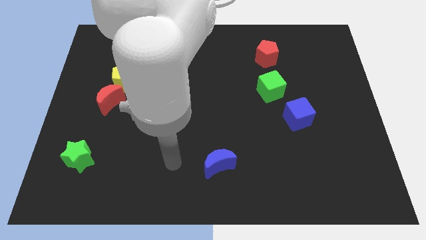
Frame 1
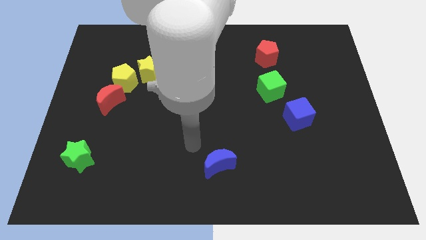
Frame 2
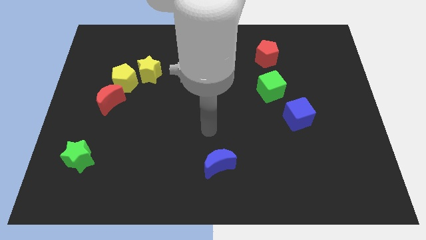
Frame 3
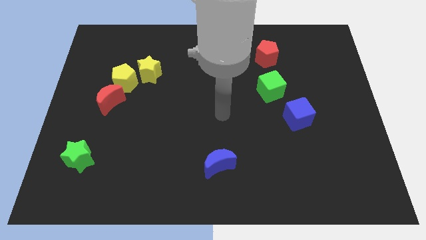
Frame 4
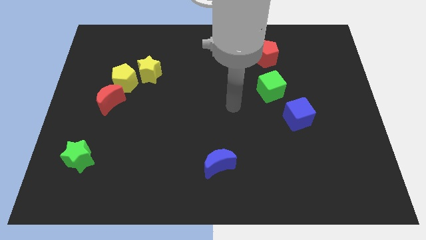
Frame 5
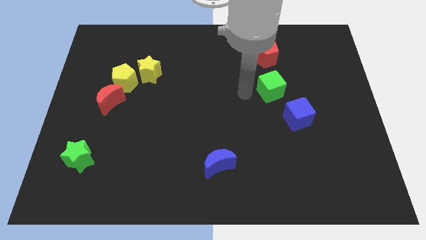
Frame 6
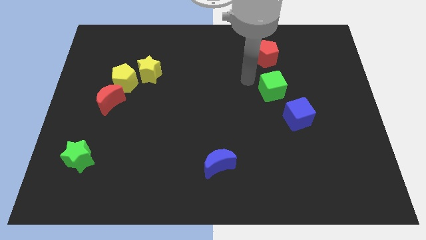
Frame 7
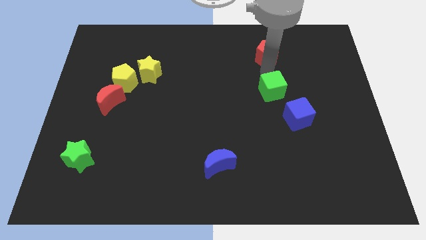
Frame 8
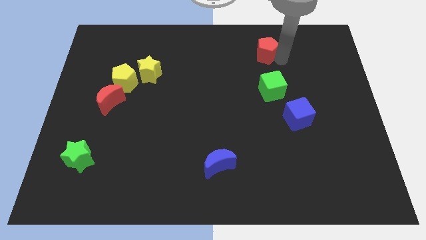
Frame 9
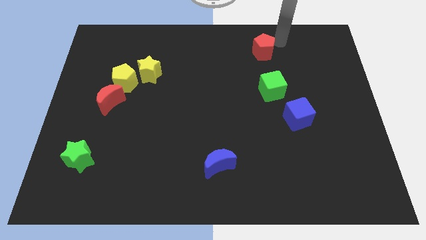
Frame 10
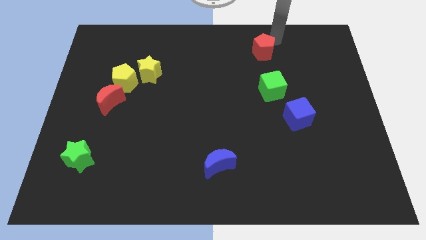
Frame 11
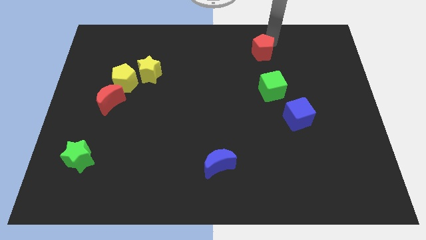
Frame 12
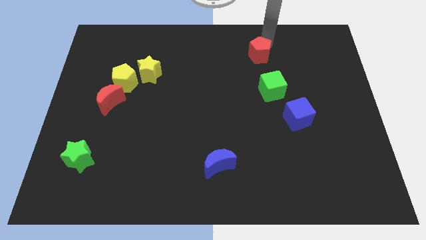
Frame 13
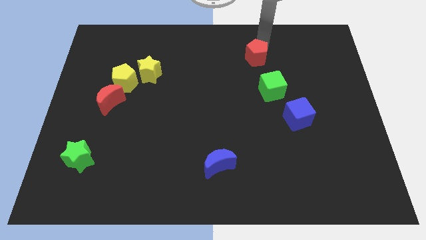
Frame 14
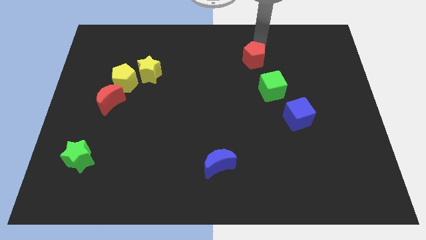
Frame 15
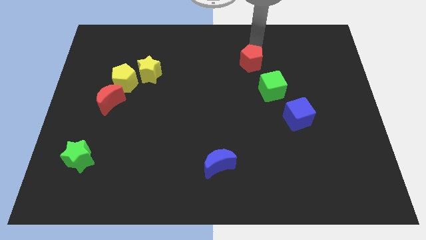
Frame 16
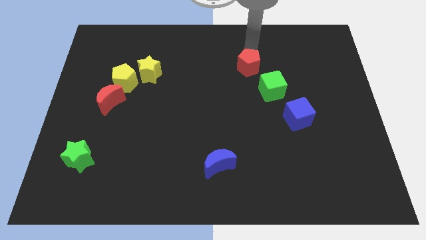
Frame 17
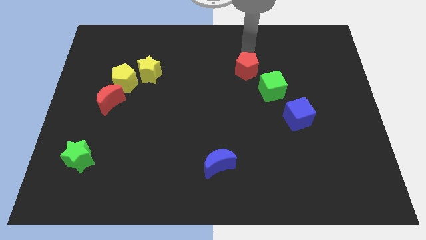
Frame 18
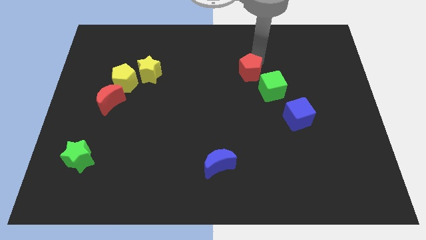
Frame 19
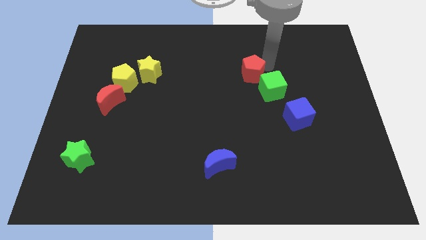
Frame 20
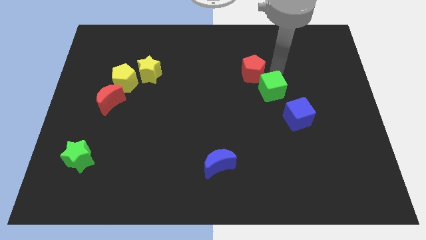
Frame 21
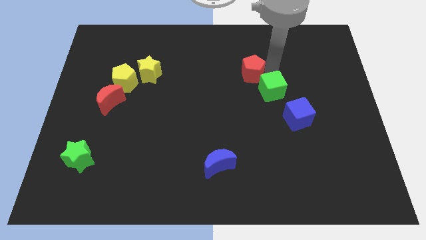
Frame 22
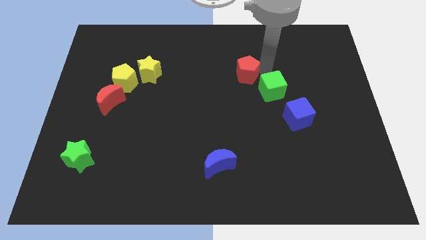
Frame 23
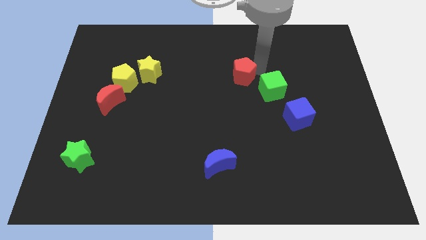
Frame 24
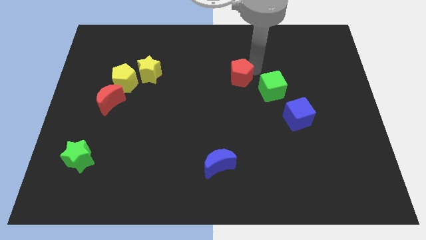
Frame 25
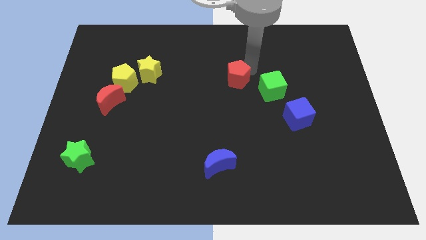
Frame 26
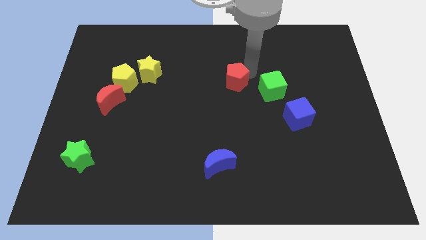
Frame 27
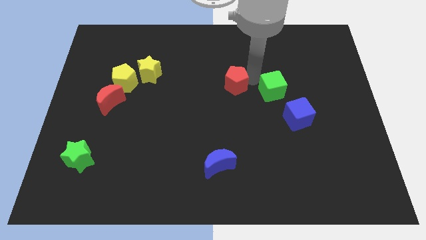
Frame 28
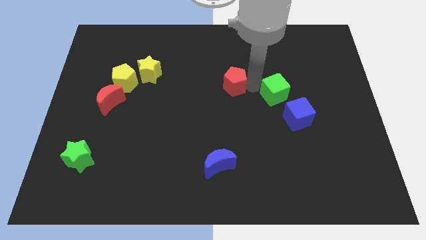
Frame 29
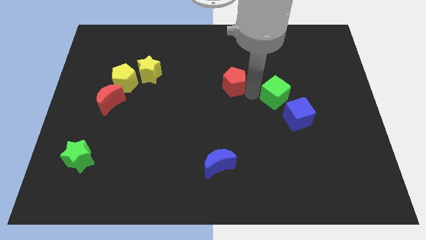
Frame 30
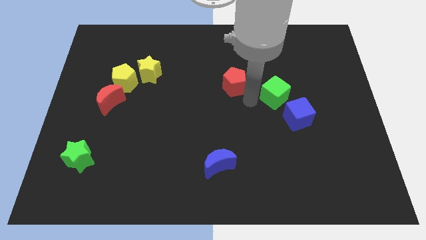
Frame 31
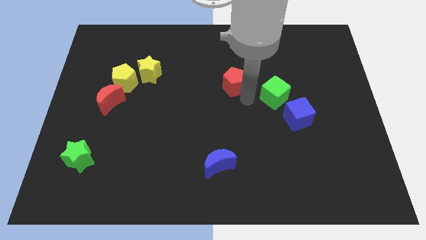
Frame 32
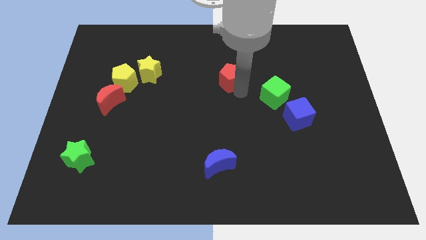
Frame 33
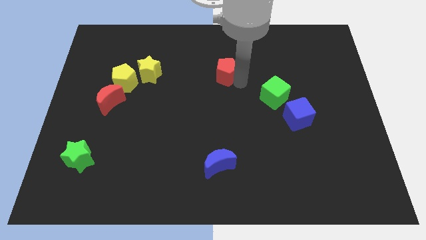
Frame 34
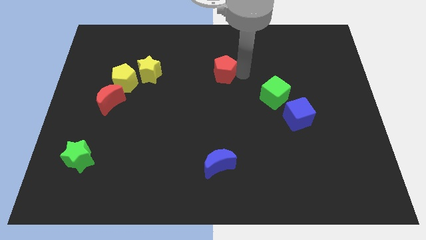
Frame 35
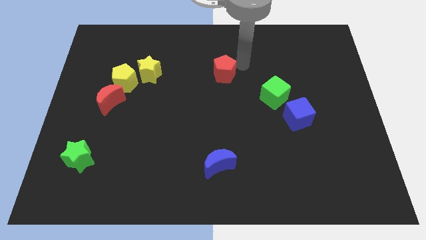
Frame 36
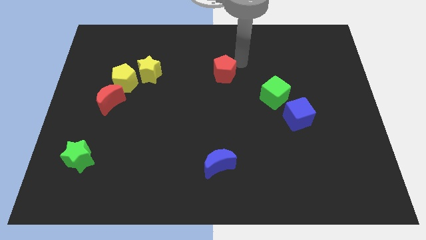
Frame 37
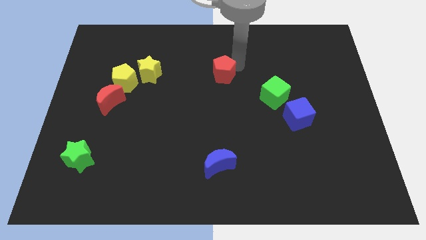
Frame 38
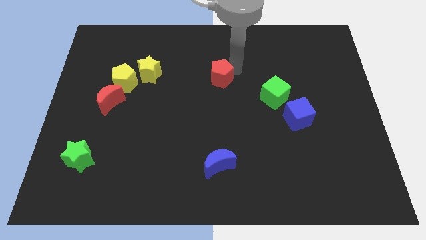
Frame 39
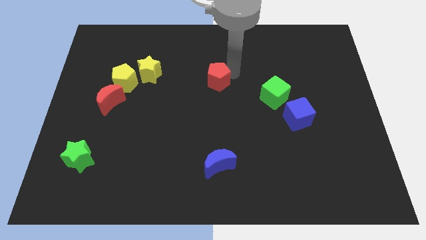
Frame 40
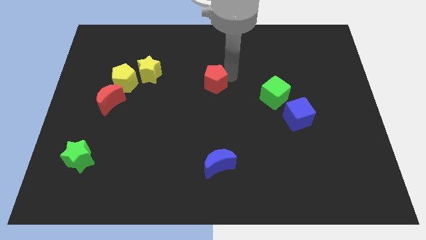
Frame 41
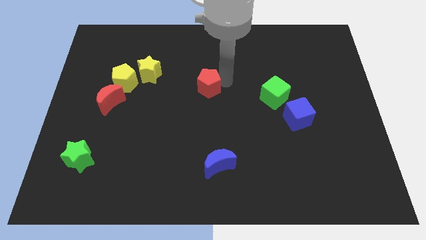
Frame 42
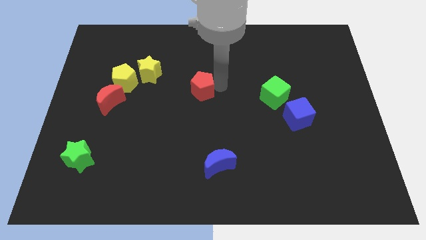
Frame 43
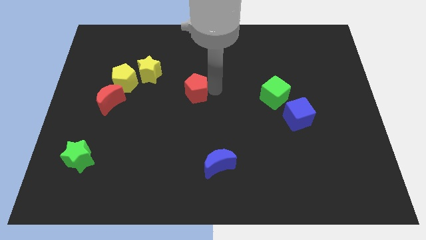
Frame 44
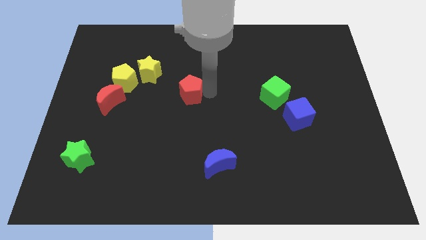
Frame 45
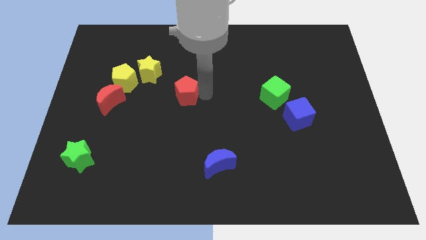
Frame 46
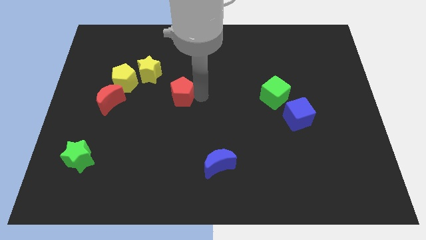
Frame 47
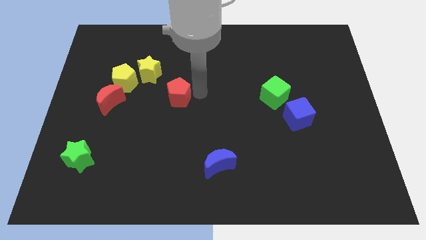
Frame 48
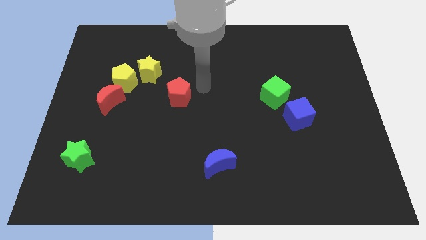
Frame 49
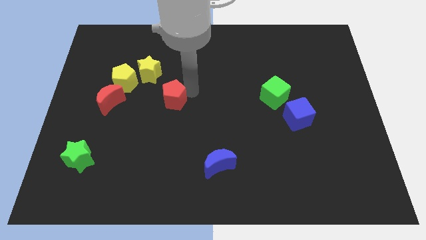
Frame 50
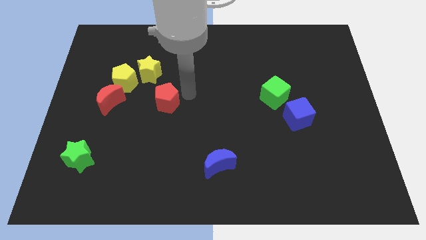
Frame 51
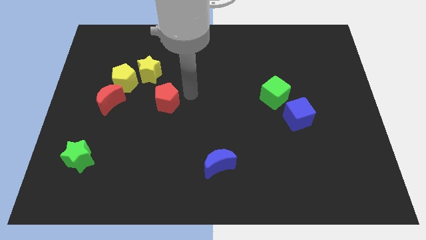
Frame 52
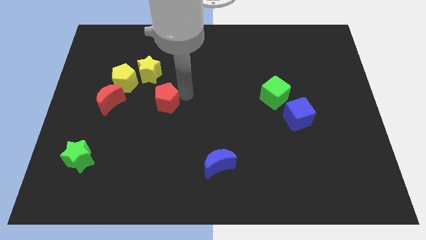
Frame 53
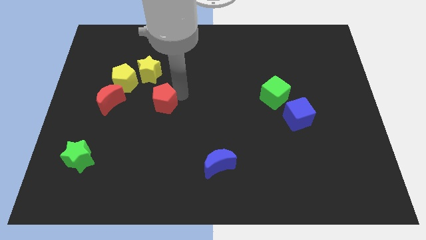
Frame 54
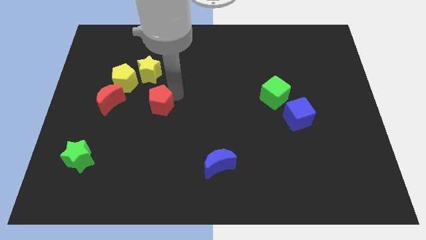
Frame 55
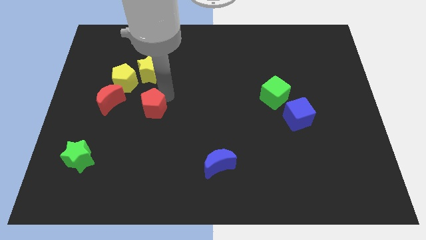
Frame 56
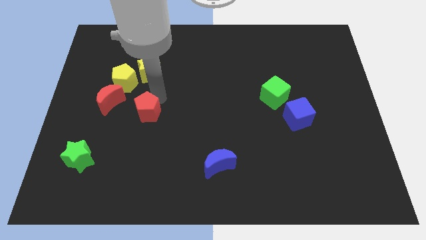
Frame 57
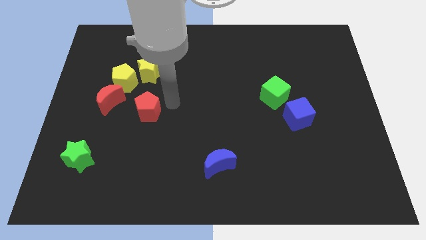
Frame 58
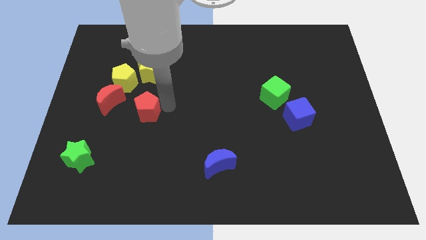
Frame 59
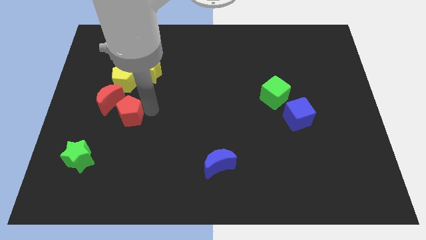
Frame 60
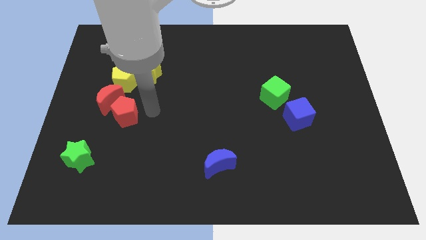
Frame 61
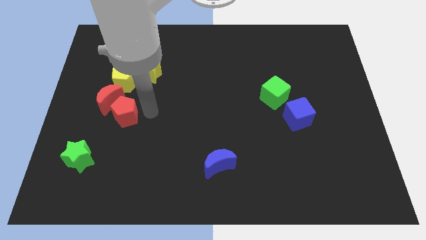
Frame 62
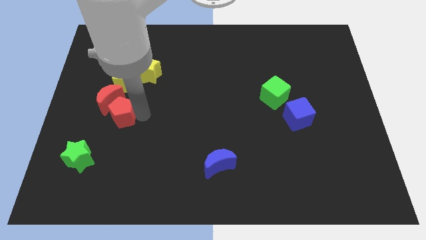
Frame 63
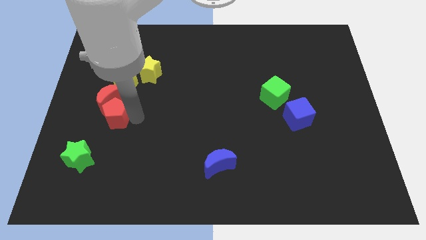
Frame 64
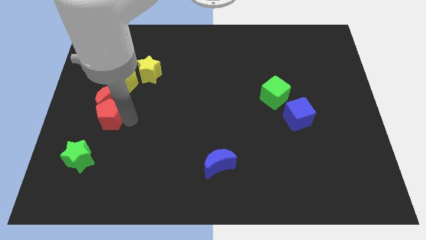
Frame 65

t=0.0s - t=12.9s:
move the red pentagon to the top of the green star
